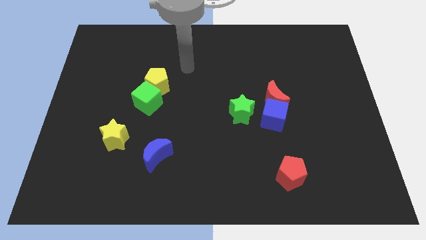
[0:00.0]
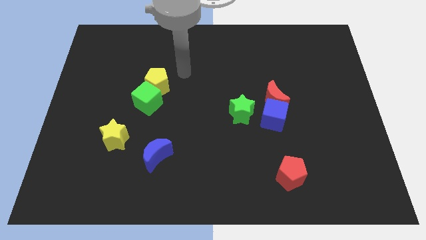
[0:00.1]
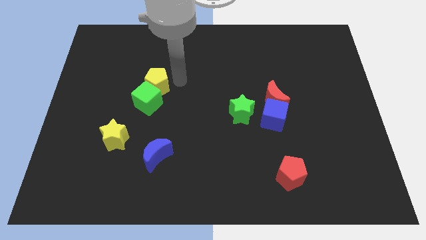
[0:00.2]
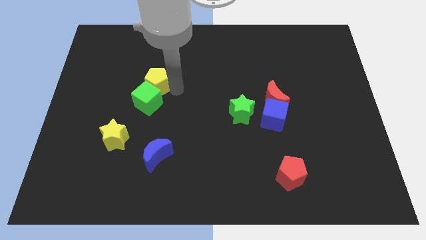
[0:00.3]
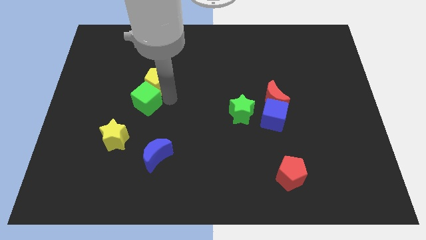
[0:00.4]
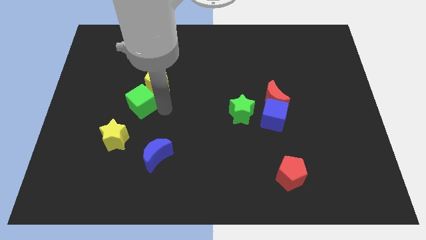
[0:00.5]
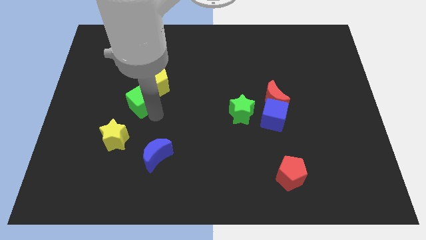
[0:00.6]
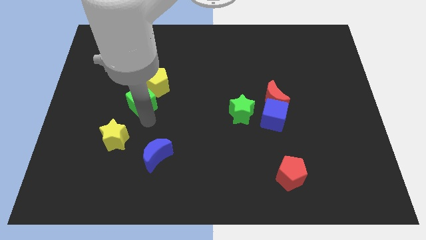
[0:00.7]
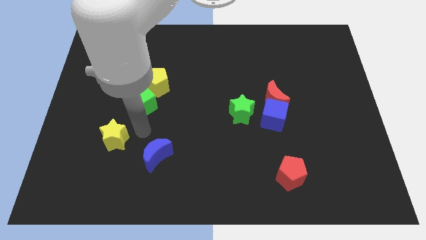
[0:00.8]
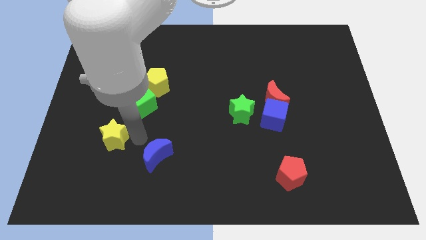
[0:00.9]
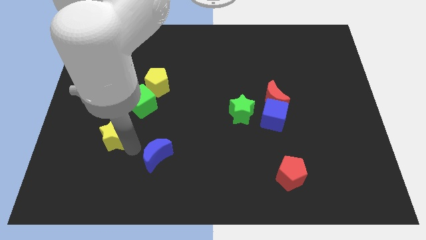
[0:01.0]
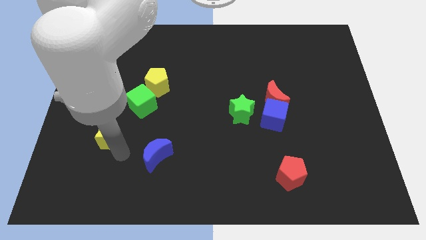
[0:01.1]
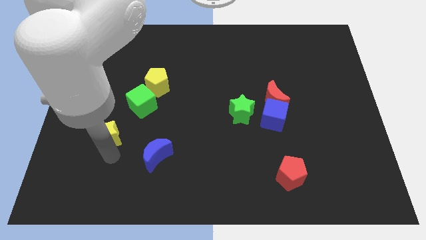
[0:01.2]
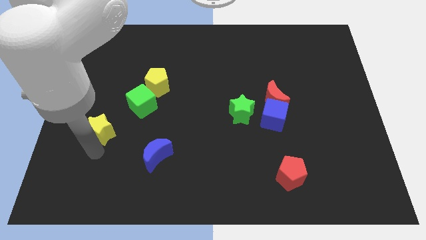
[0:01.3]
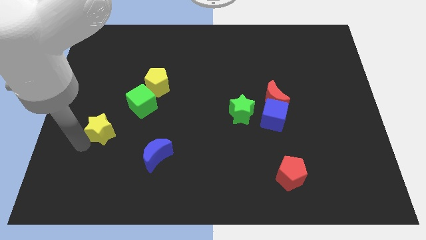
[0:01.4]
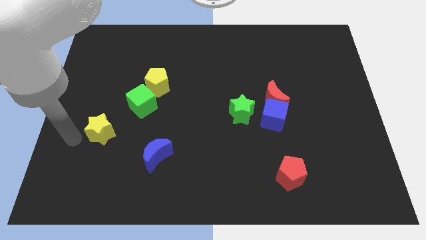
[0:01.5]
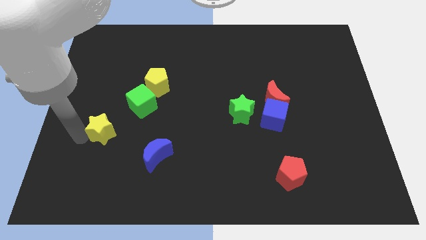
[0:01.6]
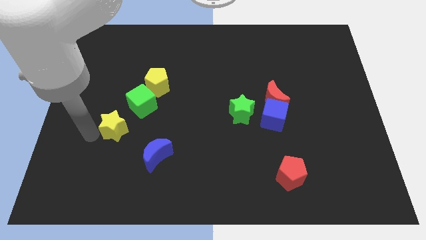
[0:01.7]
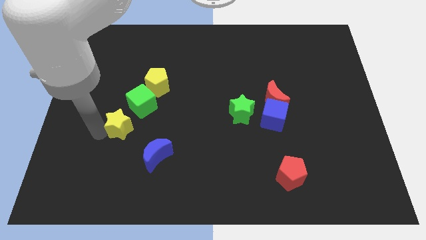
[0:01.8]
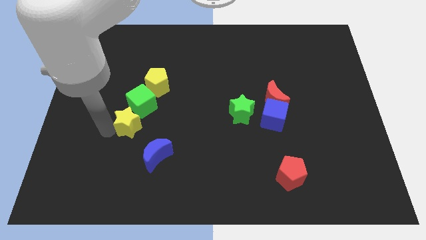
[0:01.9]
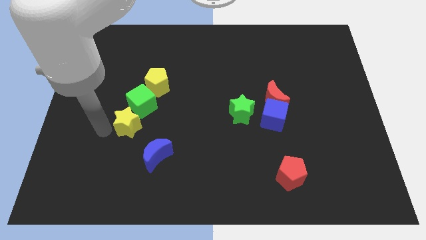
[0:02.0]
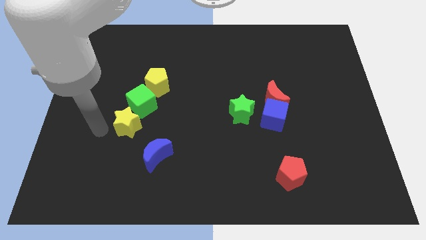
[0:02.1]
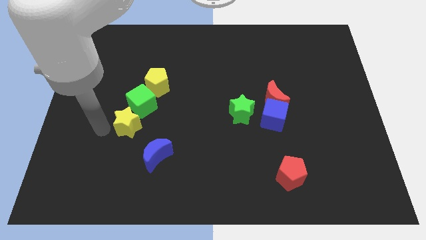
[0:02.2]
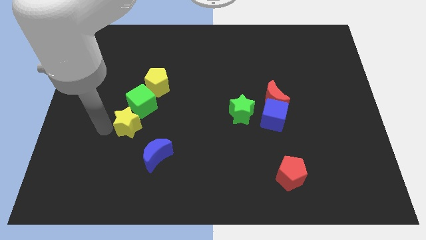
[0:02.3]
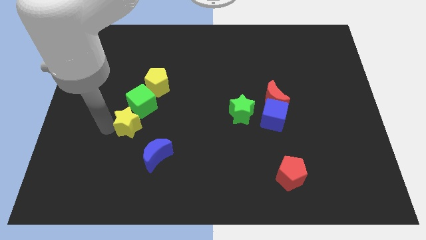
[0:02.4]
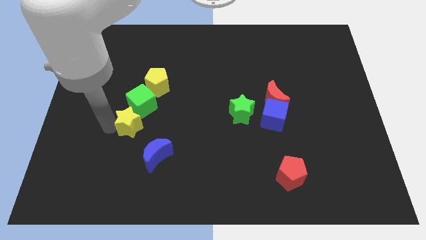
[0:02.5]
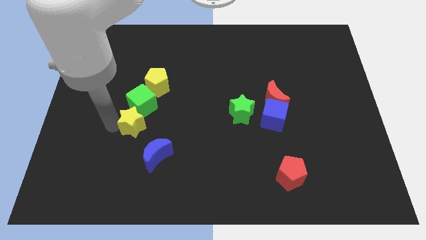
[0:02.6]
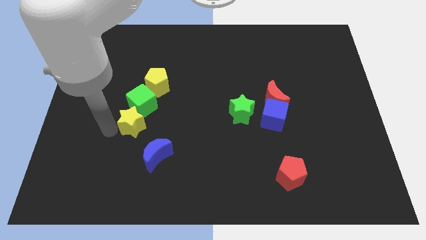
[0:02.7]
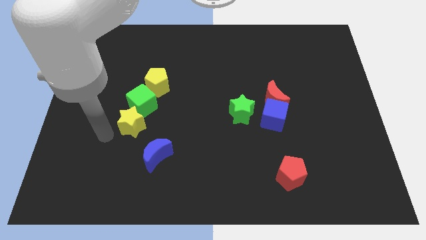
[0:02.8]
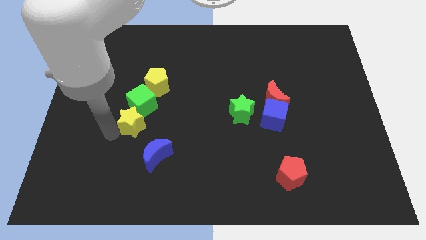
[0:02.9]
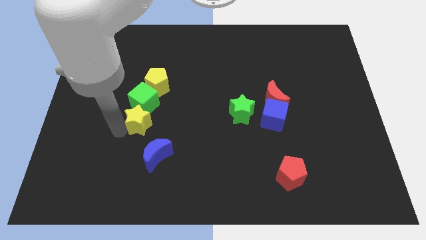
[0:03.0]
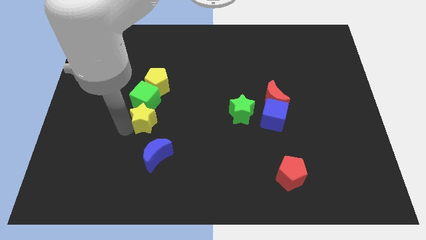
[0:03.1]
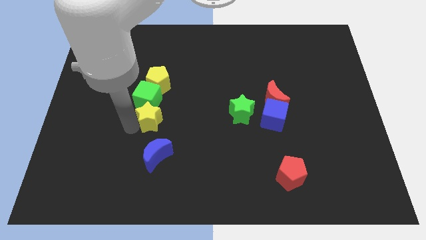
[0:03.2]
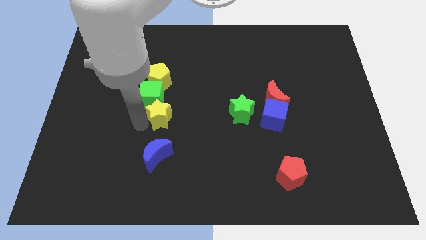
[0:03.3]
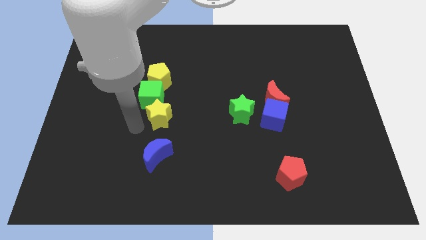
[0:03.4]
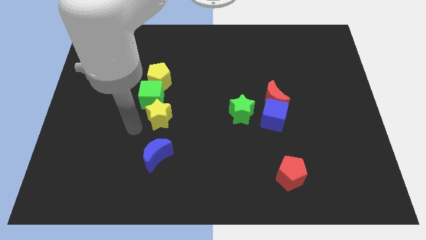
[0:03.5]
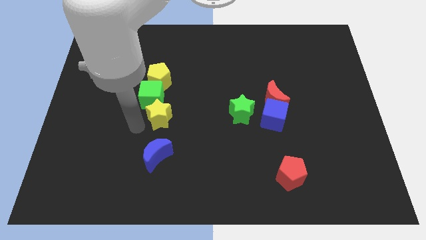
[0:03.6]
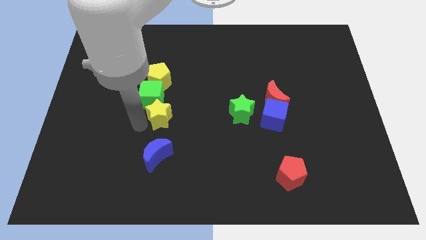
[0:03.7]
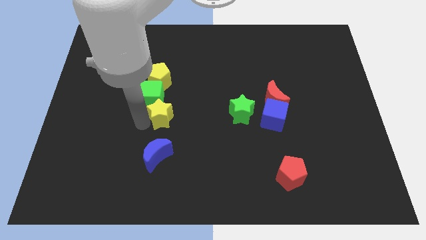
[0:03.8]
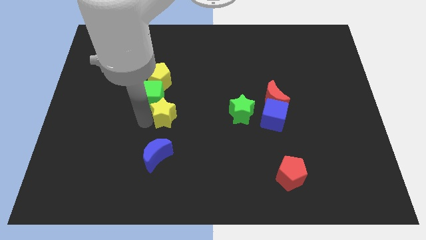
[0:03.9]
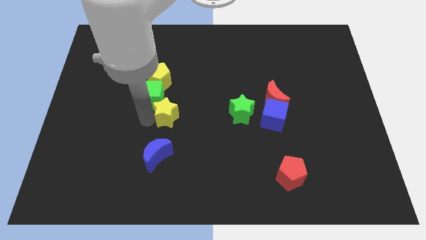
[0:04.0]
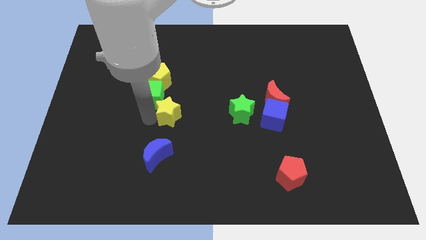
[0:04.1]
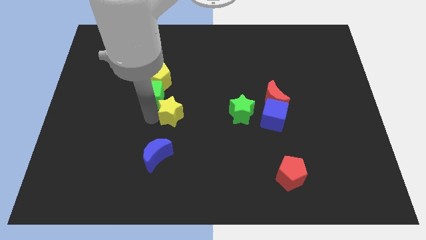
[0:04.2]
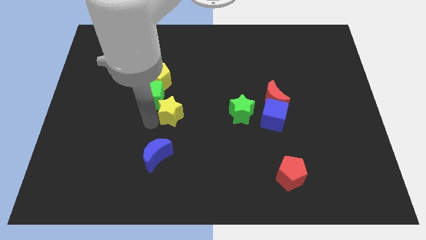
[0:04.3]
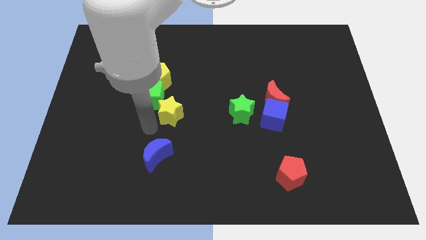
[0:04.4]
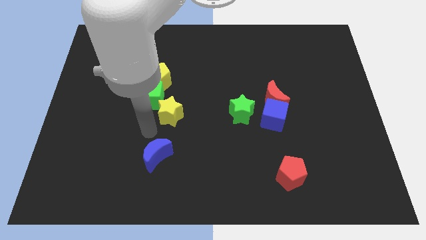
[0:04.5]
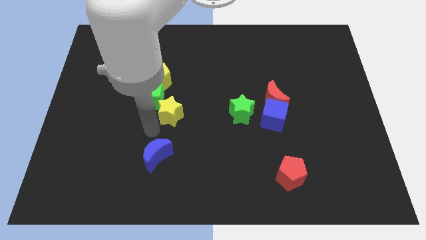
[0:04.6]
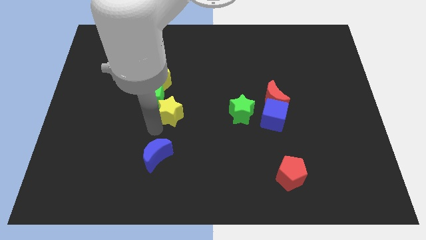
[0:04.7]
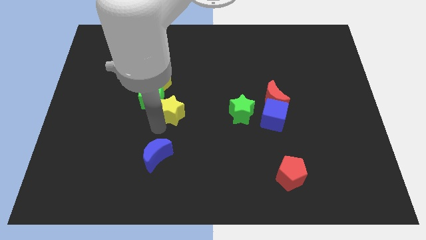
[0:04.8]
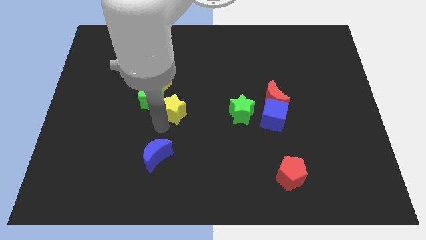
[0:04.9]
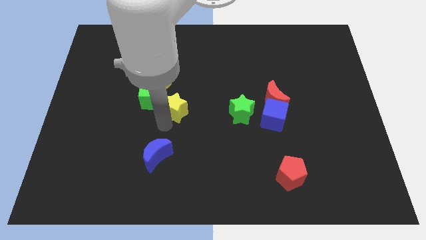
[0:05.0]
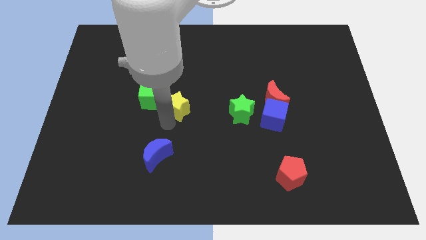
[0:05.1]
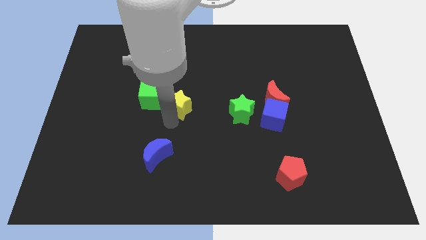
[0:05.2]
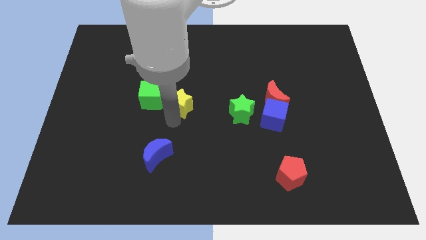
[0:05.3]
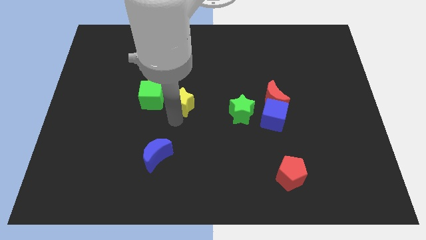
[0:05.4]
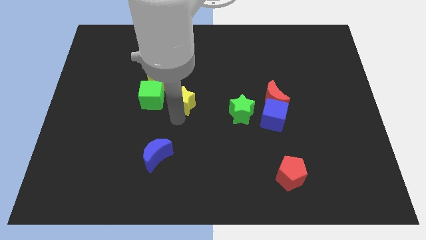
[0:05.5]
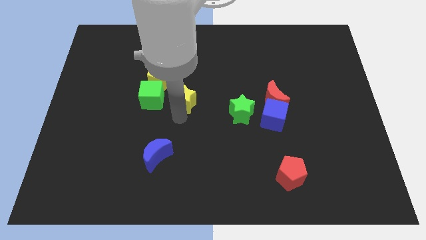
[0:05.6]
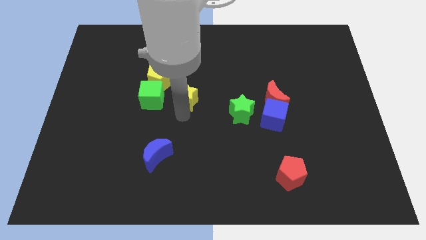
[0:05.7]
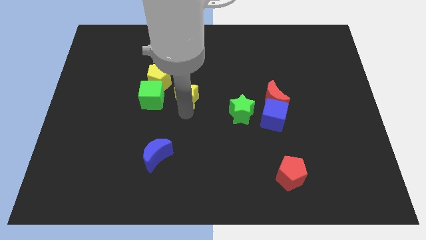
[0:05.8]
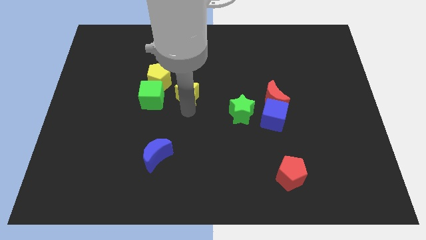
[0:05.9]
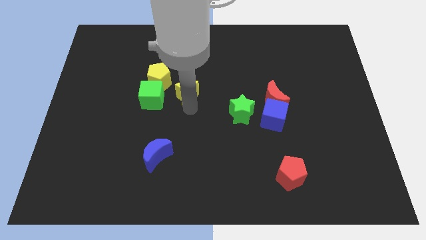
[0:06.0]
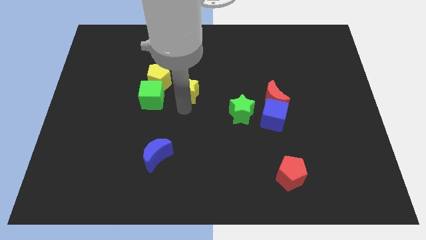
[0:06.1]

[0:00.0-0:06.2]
slide the yellow star upwards and then to the right

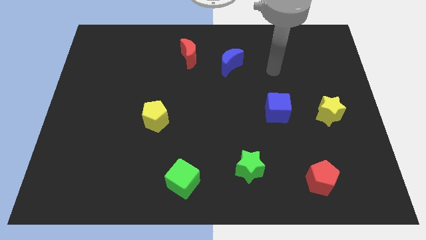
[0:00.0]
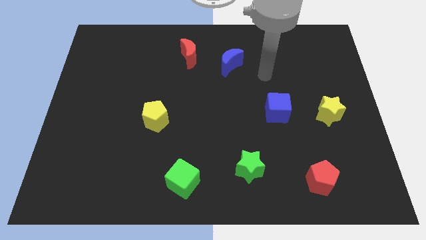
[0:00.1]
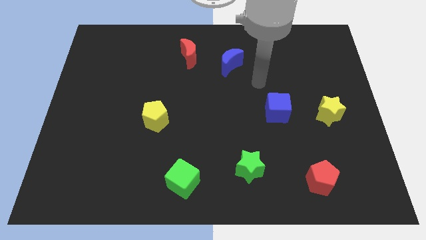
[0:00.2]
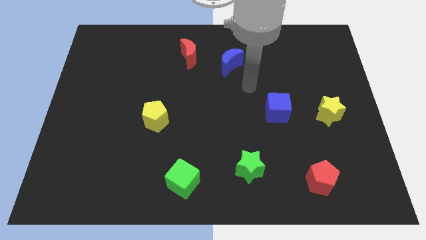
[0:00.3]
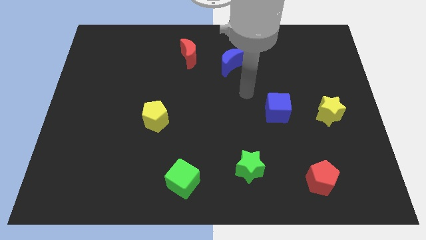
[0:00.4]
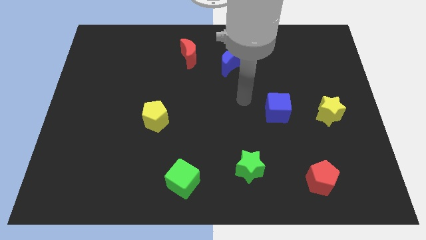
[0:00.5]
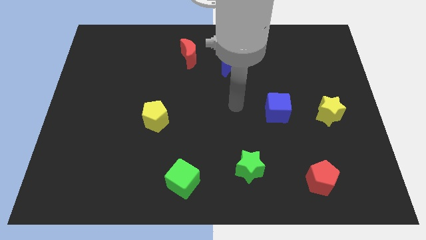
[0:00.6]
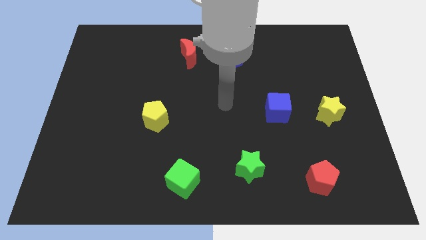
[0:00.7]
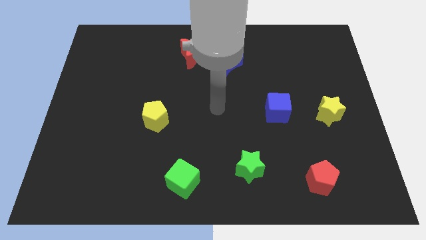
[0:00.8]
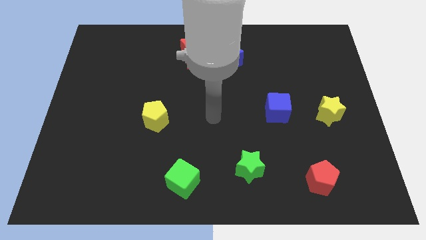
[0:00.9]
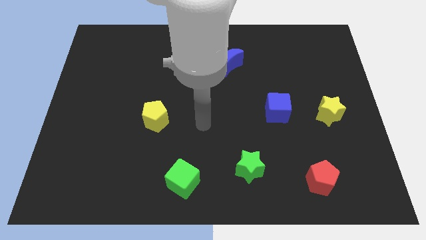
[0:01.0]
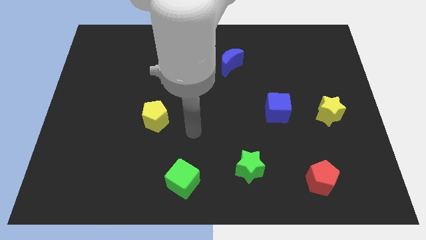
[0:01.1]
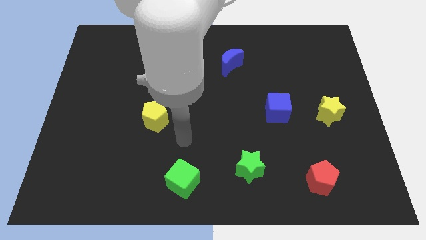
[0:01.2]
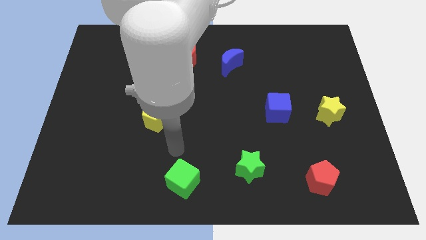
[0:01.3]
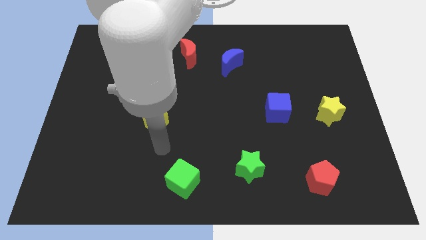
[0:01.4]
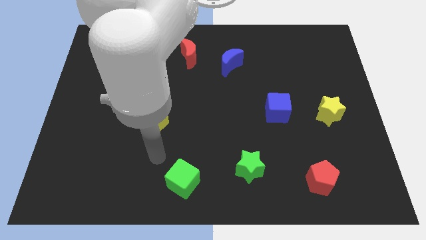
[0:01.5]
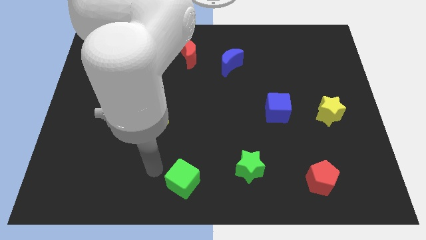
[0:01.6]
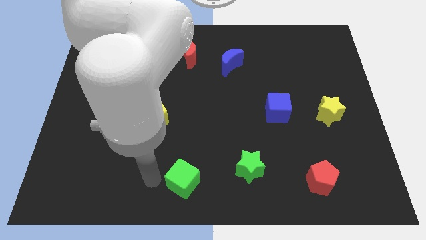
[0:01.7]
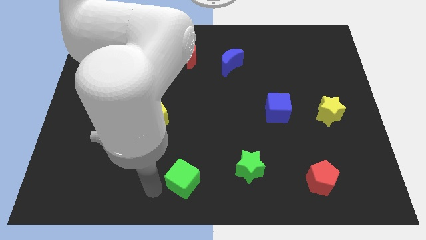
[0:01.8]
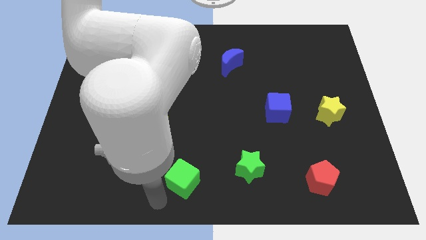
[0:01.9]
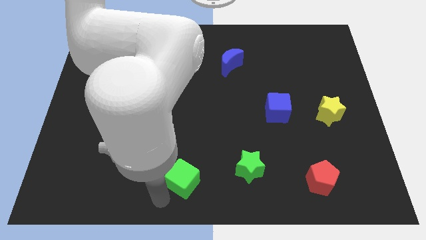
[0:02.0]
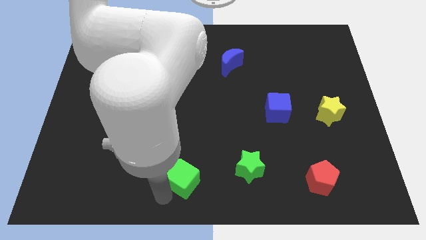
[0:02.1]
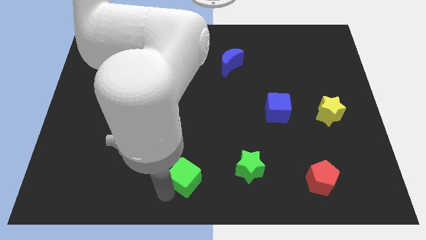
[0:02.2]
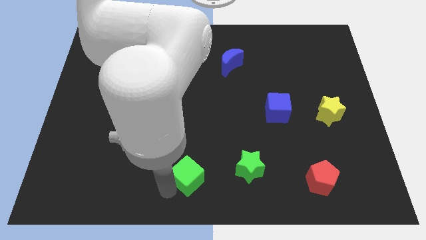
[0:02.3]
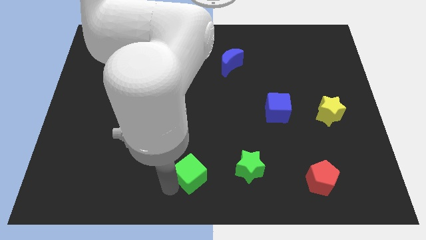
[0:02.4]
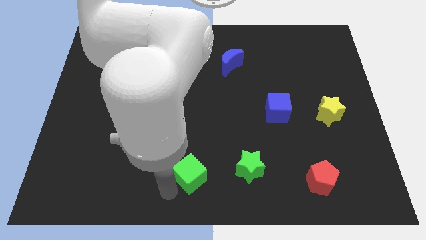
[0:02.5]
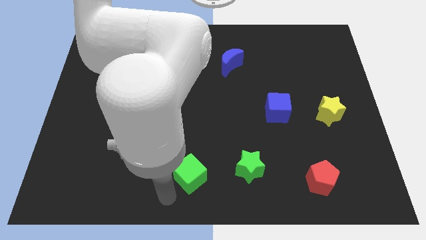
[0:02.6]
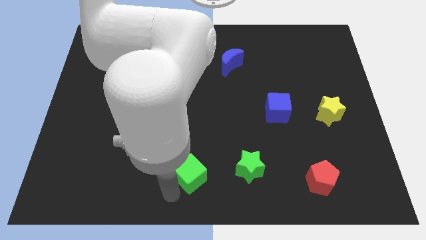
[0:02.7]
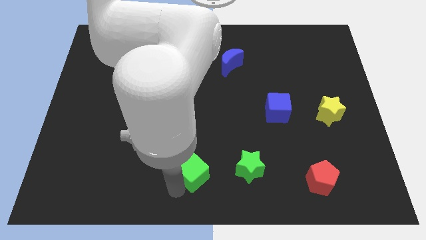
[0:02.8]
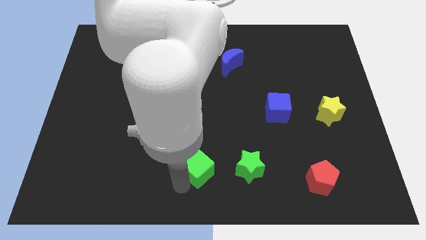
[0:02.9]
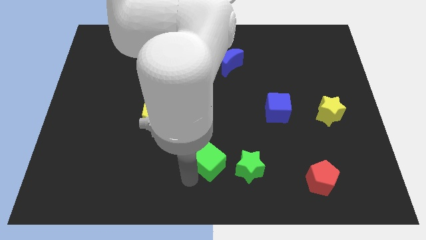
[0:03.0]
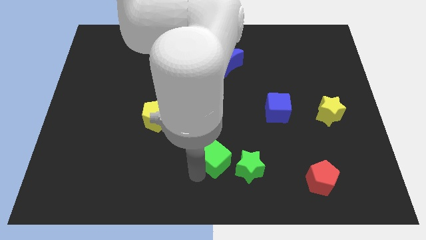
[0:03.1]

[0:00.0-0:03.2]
slide the green cube up and to the right diagonally somewhat
